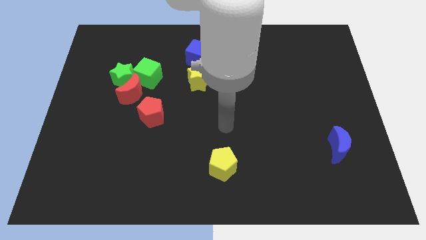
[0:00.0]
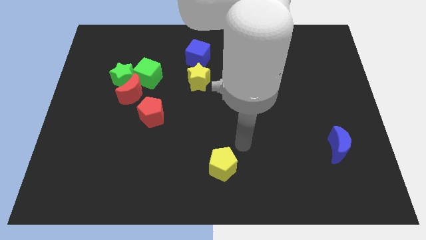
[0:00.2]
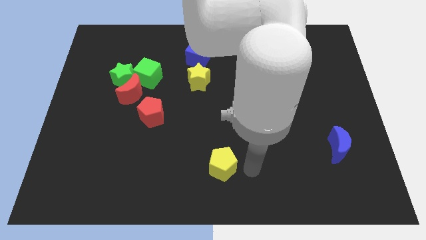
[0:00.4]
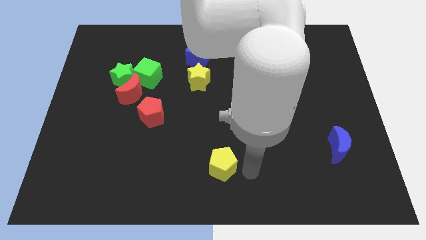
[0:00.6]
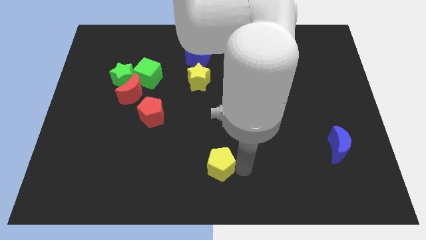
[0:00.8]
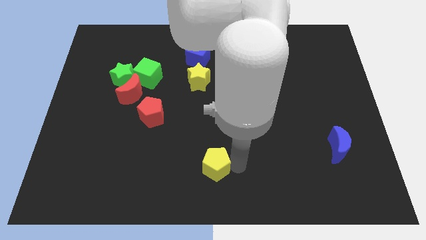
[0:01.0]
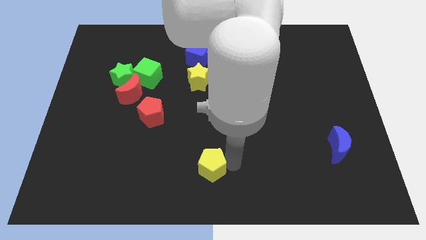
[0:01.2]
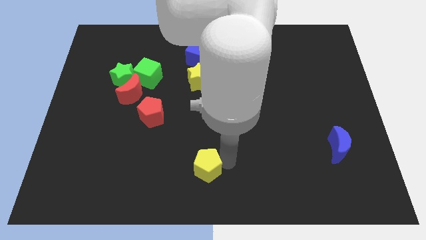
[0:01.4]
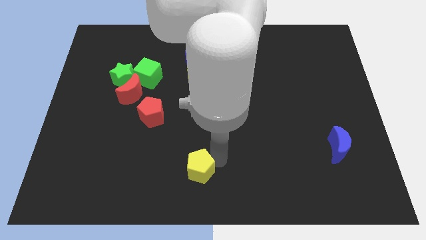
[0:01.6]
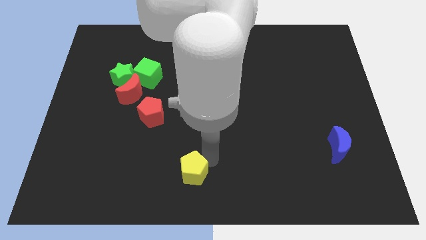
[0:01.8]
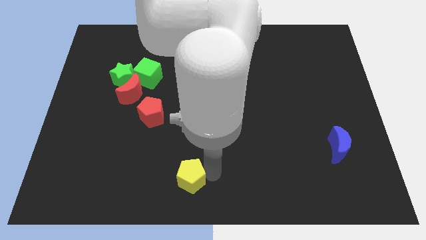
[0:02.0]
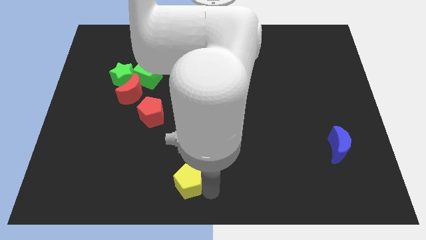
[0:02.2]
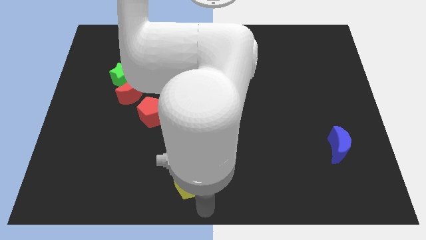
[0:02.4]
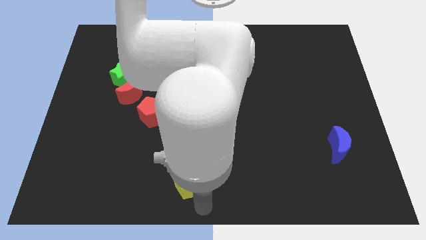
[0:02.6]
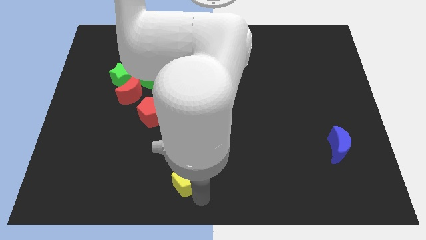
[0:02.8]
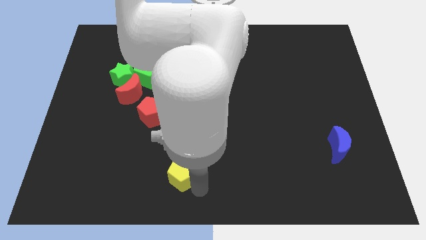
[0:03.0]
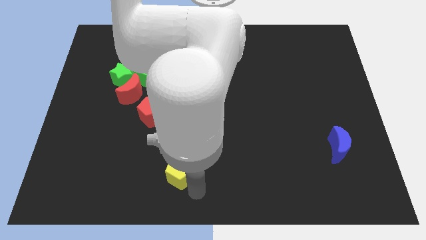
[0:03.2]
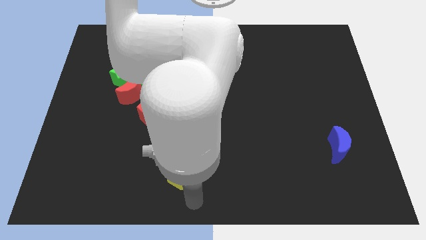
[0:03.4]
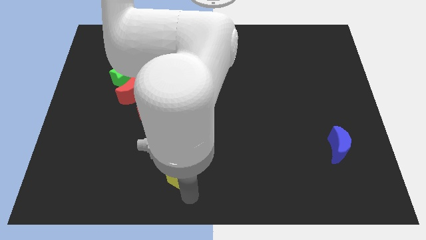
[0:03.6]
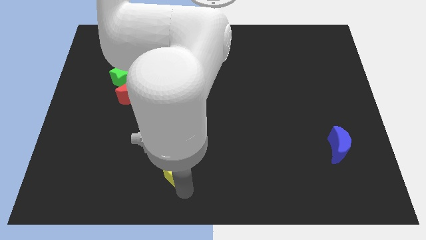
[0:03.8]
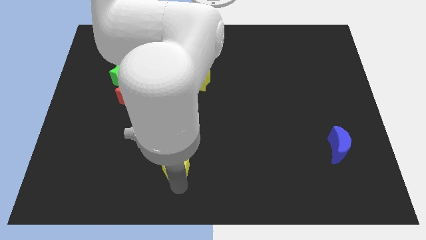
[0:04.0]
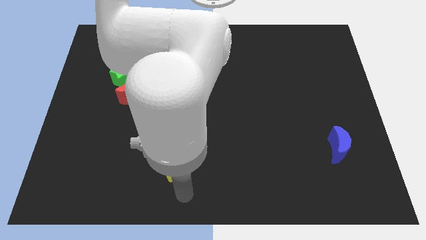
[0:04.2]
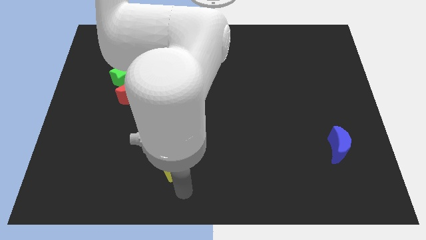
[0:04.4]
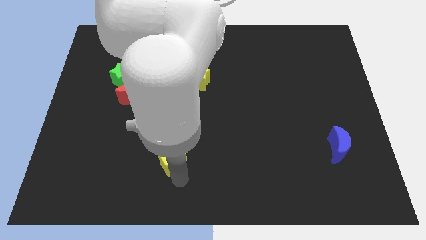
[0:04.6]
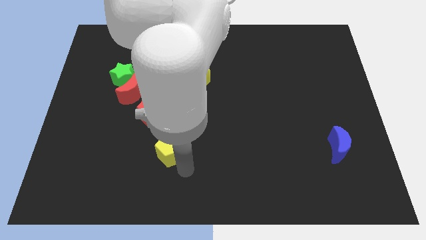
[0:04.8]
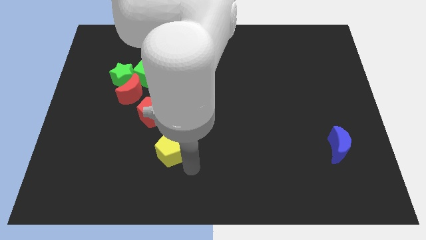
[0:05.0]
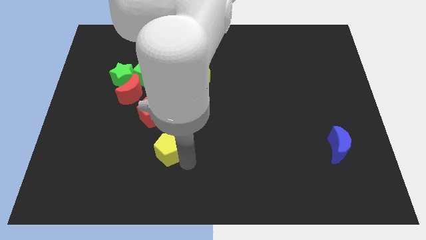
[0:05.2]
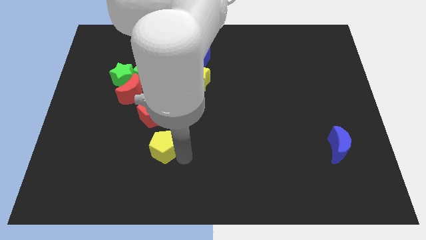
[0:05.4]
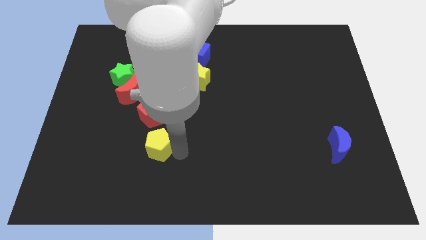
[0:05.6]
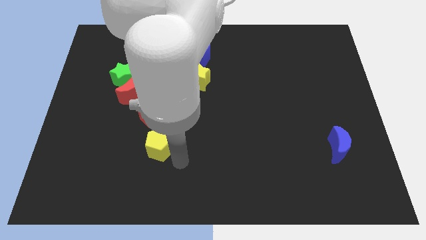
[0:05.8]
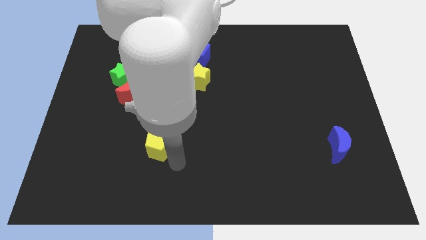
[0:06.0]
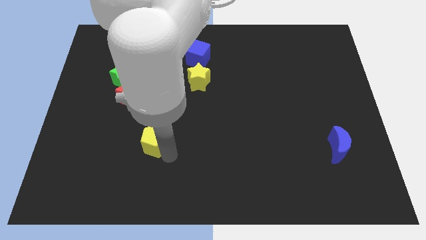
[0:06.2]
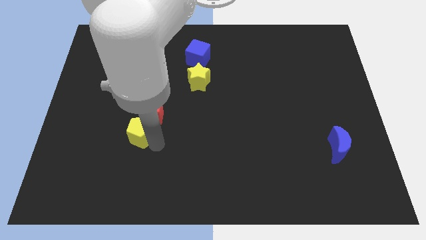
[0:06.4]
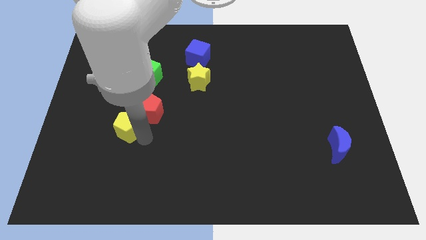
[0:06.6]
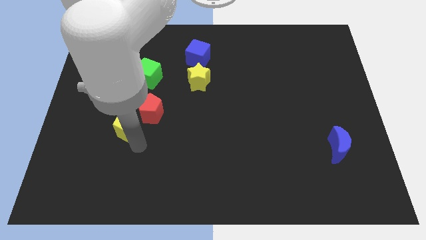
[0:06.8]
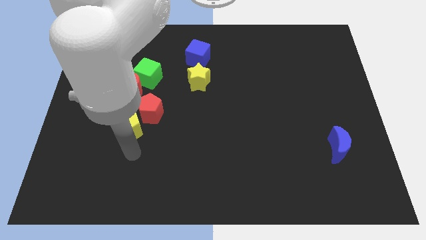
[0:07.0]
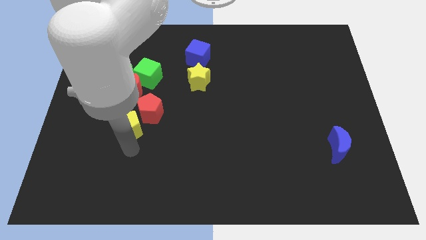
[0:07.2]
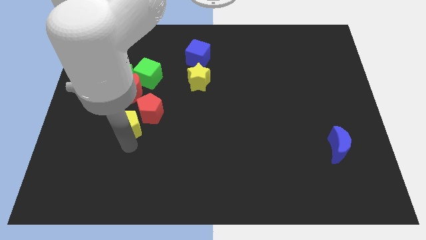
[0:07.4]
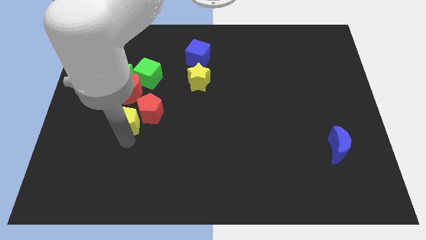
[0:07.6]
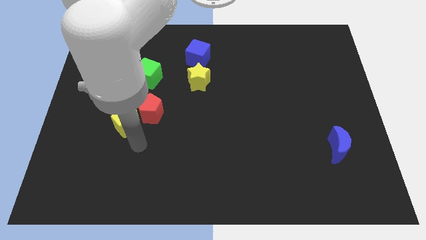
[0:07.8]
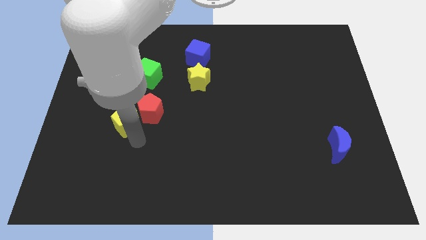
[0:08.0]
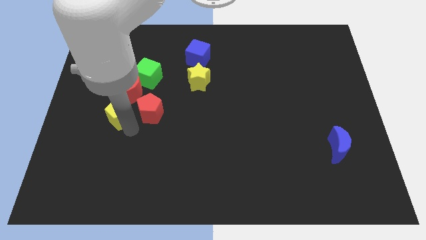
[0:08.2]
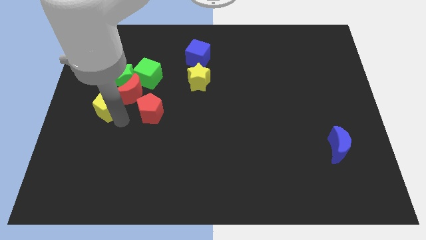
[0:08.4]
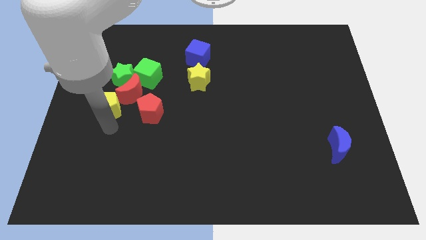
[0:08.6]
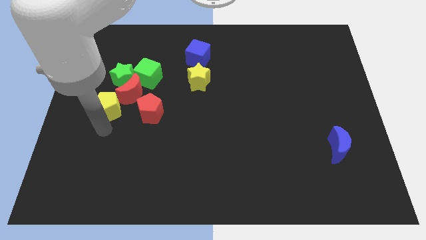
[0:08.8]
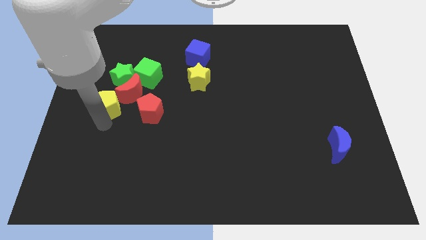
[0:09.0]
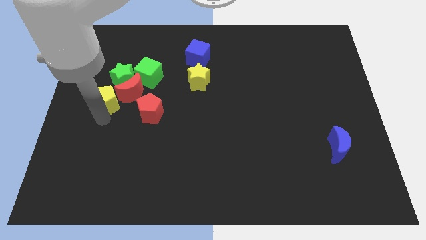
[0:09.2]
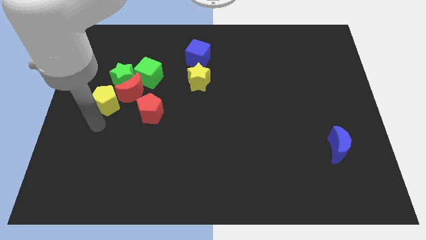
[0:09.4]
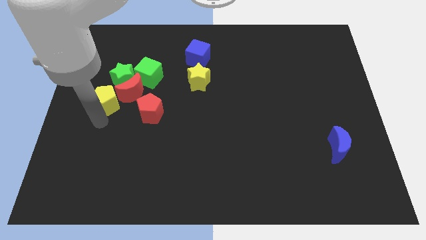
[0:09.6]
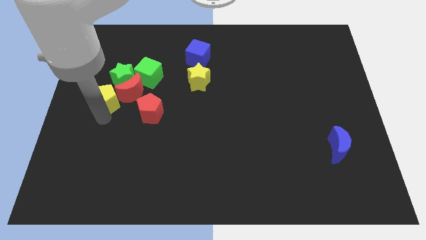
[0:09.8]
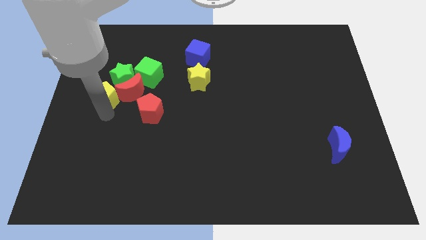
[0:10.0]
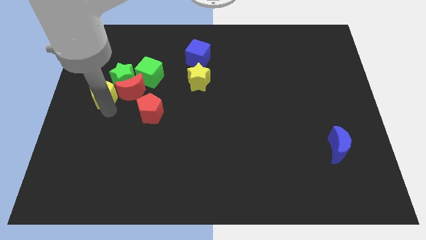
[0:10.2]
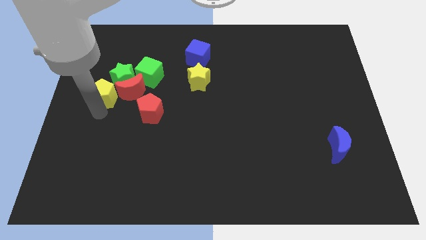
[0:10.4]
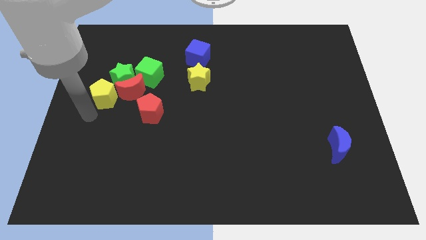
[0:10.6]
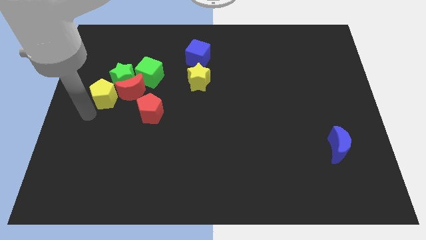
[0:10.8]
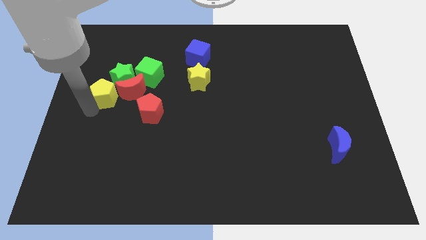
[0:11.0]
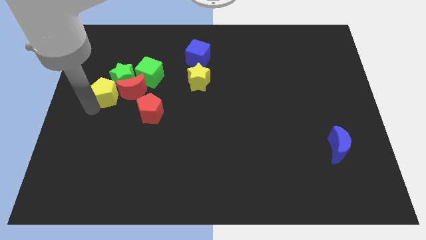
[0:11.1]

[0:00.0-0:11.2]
move the yellow pentagon towards the green star

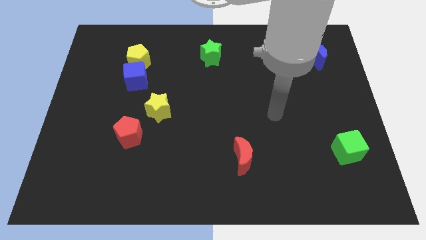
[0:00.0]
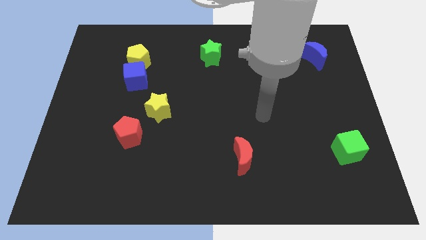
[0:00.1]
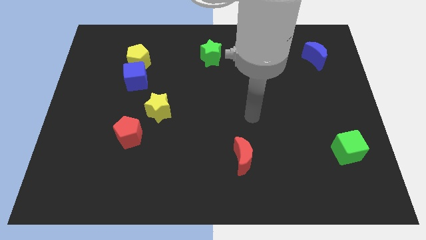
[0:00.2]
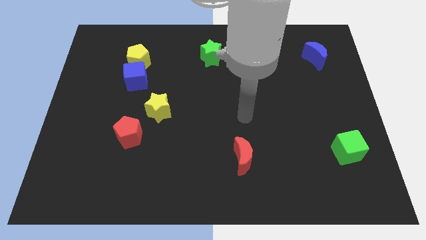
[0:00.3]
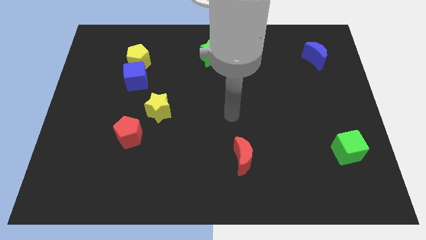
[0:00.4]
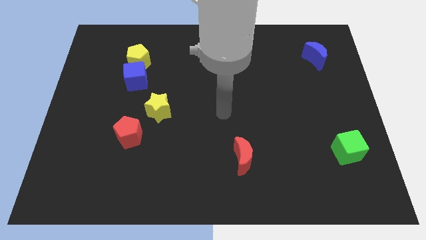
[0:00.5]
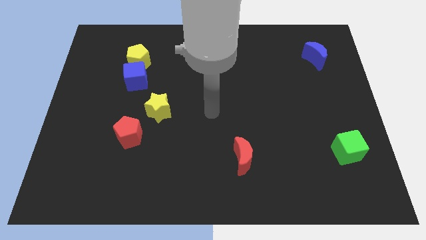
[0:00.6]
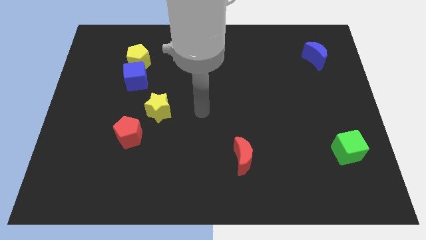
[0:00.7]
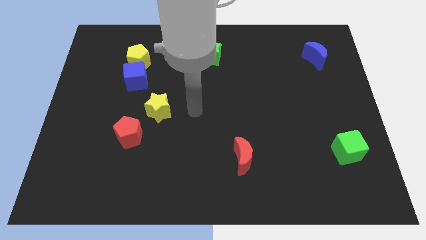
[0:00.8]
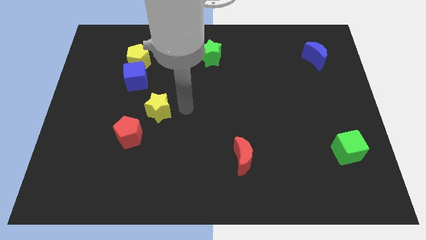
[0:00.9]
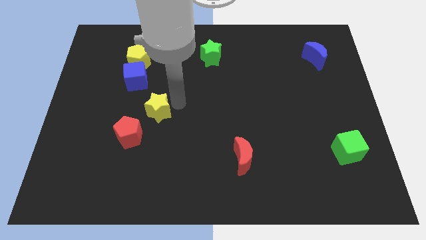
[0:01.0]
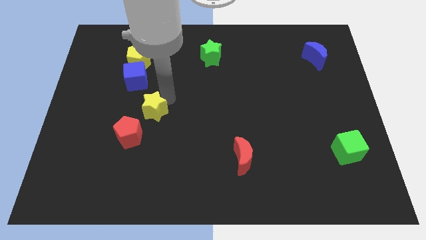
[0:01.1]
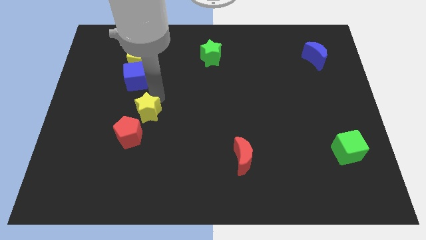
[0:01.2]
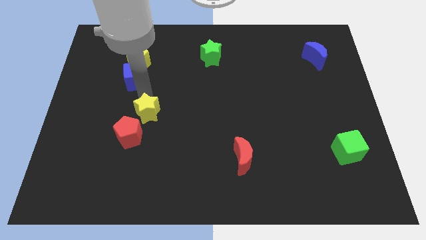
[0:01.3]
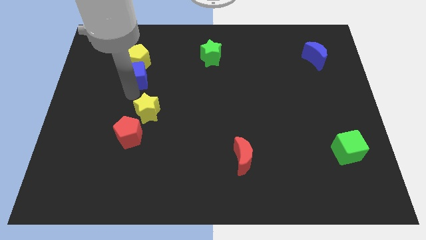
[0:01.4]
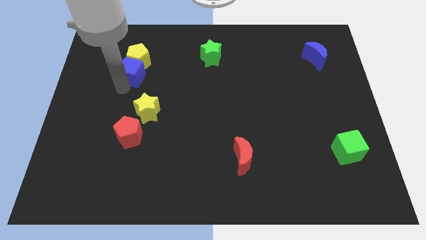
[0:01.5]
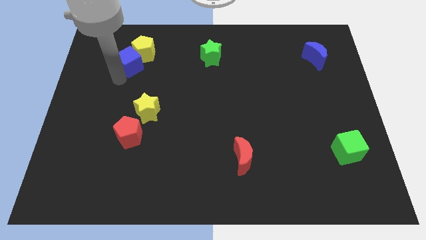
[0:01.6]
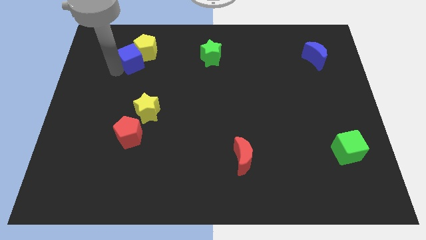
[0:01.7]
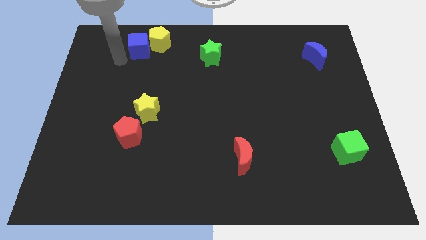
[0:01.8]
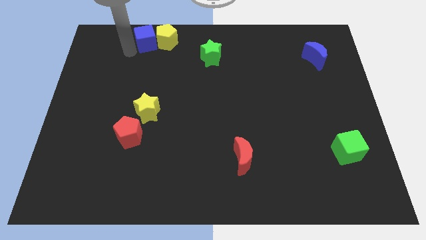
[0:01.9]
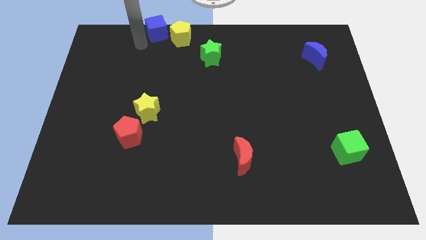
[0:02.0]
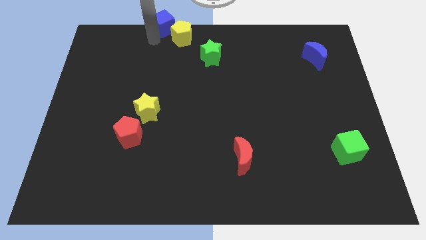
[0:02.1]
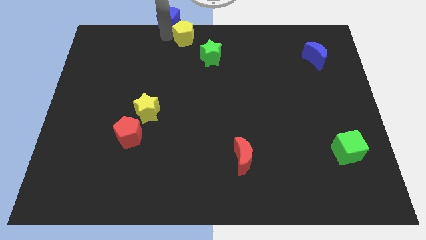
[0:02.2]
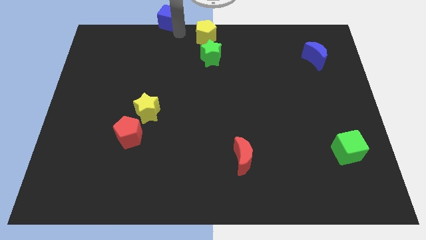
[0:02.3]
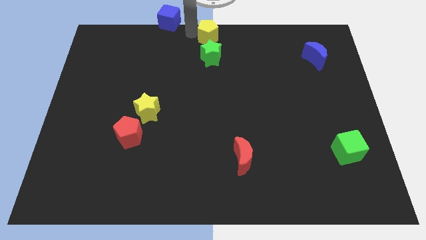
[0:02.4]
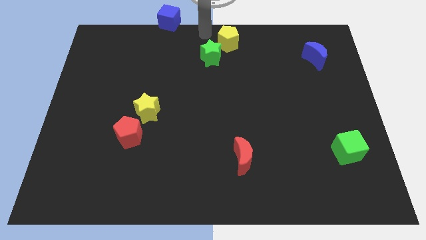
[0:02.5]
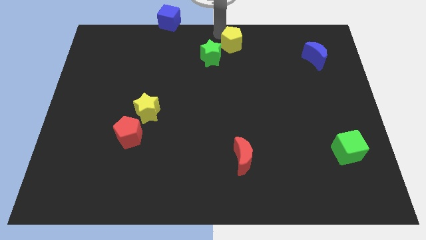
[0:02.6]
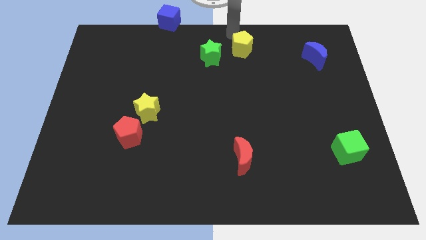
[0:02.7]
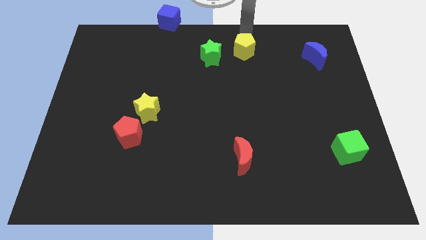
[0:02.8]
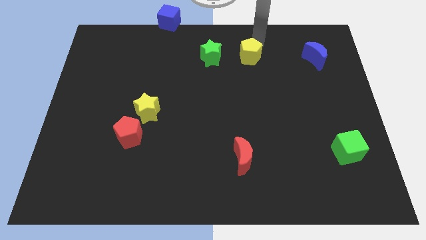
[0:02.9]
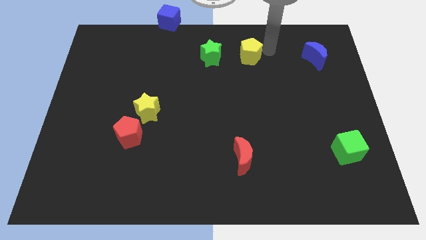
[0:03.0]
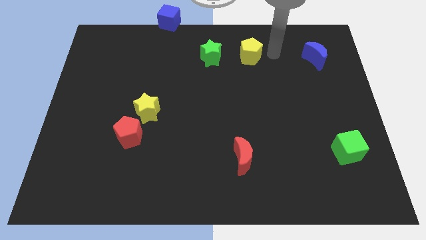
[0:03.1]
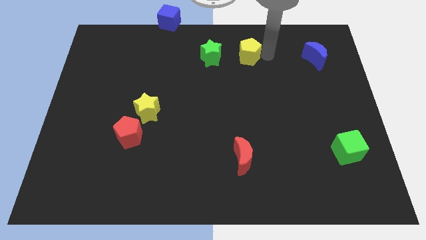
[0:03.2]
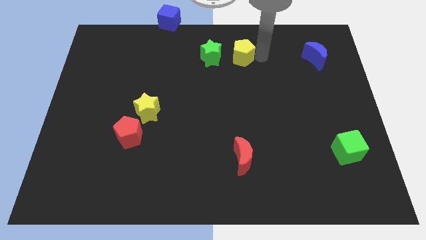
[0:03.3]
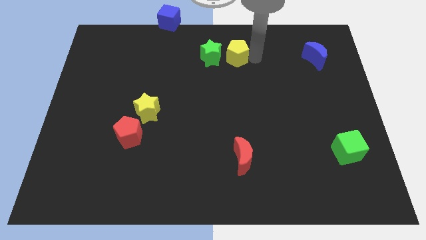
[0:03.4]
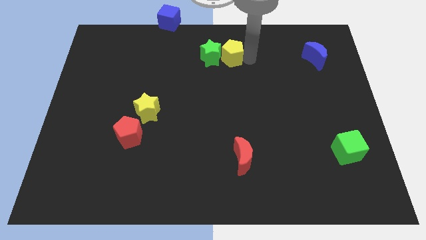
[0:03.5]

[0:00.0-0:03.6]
push the yellow pentagon close to the green star
